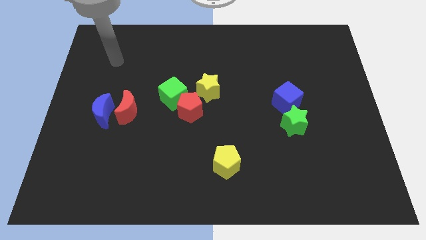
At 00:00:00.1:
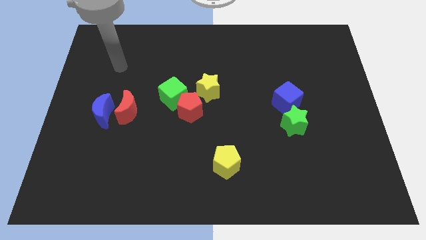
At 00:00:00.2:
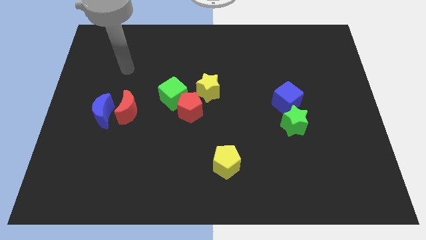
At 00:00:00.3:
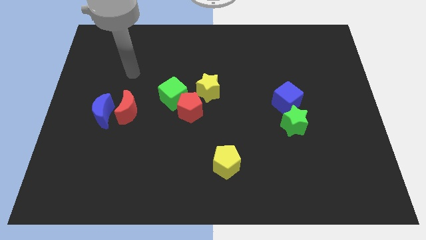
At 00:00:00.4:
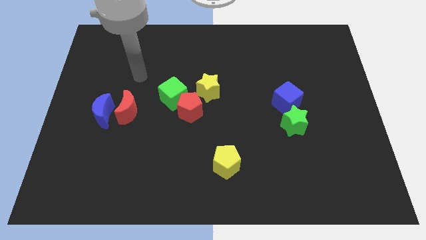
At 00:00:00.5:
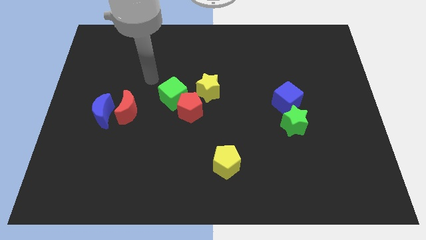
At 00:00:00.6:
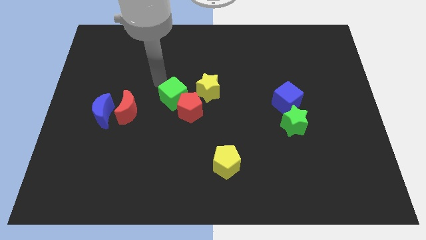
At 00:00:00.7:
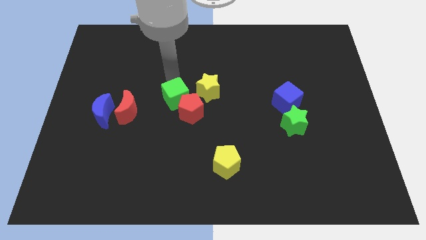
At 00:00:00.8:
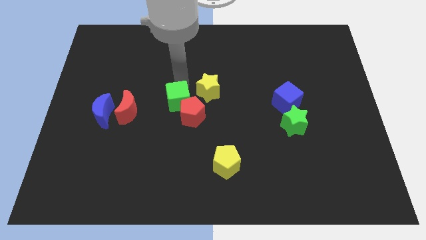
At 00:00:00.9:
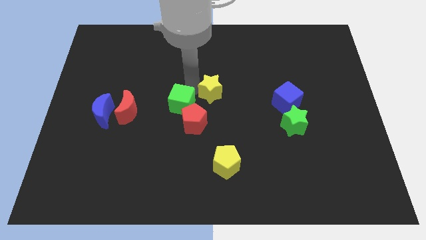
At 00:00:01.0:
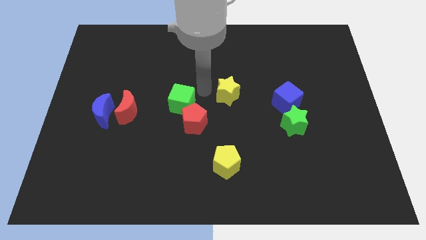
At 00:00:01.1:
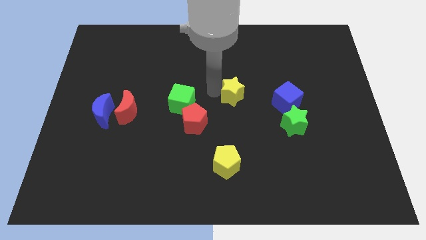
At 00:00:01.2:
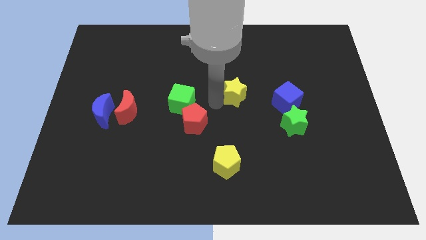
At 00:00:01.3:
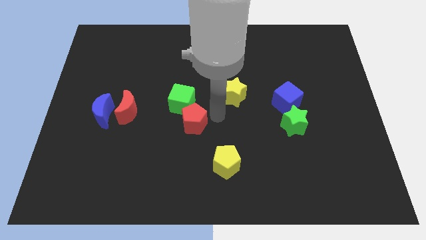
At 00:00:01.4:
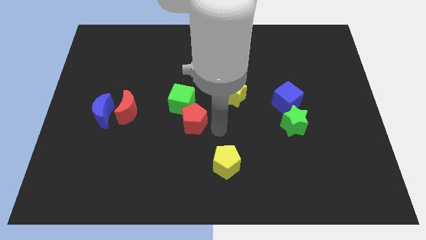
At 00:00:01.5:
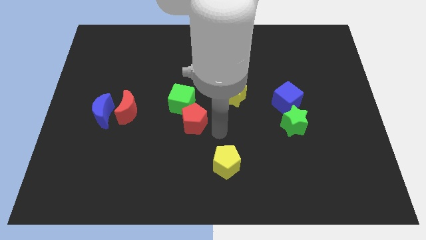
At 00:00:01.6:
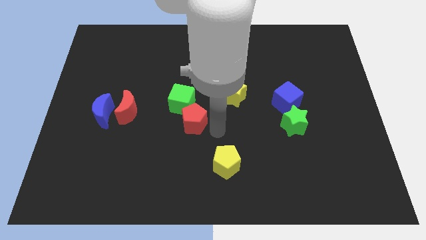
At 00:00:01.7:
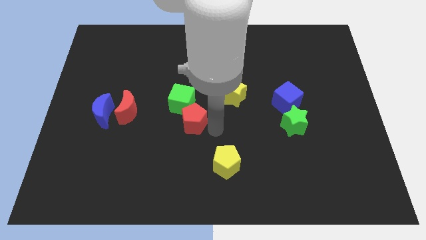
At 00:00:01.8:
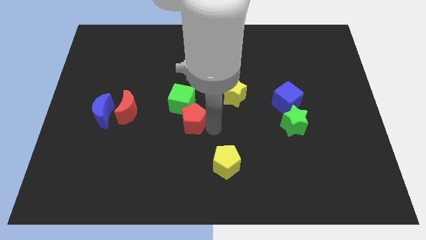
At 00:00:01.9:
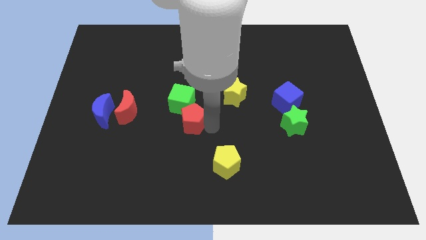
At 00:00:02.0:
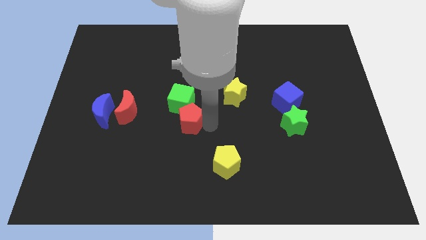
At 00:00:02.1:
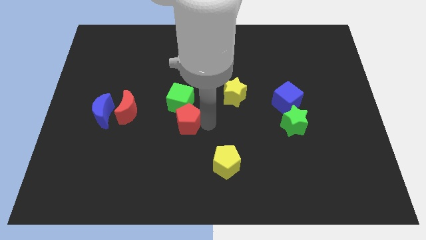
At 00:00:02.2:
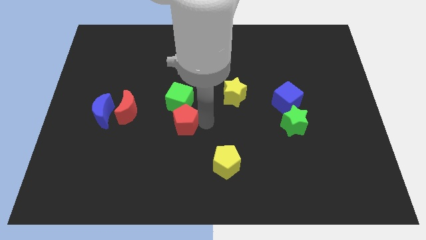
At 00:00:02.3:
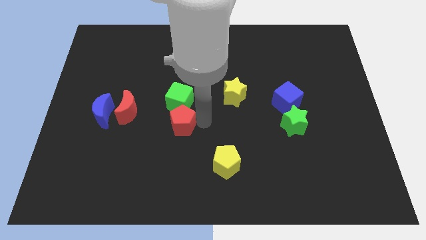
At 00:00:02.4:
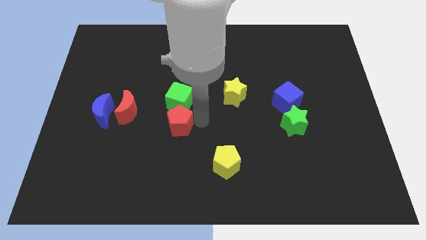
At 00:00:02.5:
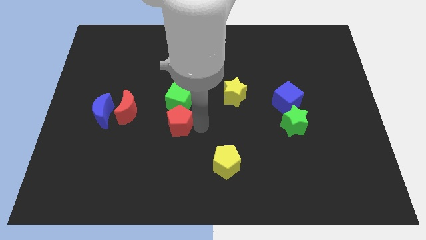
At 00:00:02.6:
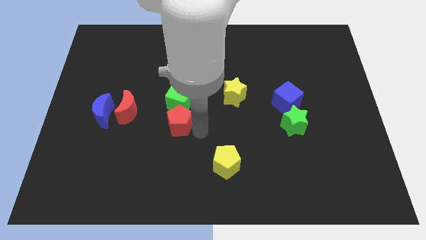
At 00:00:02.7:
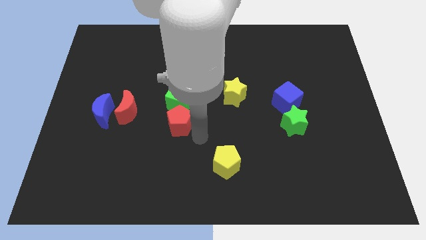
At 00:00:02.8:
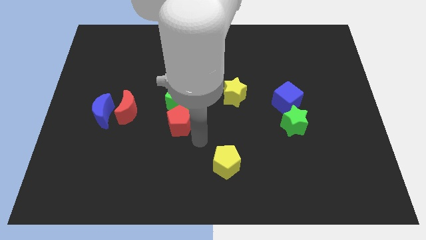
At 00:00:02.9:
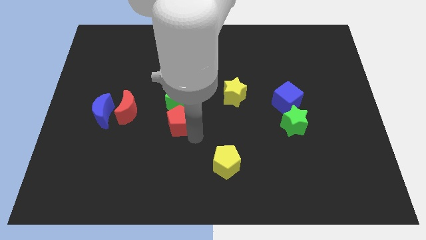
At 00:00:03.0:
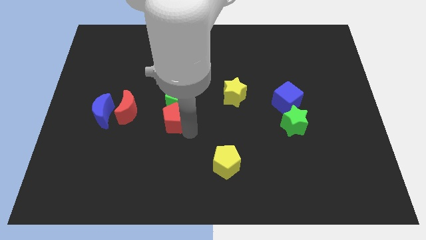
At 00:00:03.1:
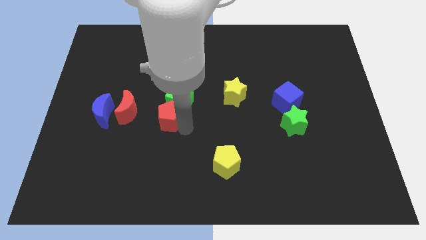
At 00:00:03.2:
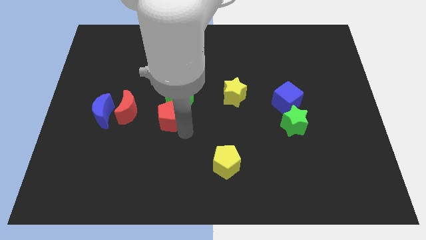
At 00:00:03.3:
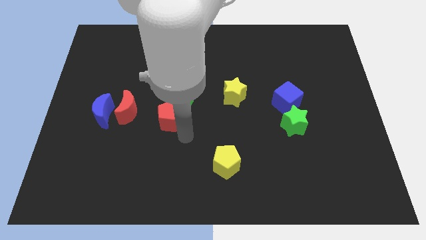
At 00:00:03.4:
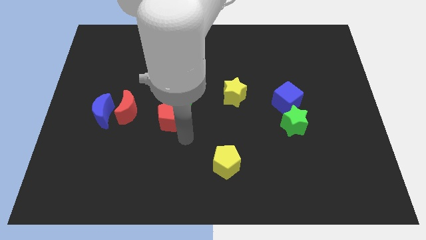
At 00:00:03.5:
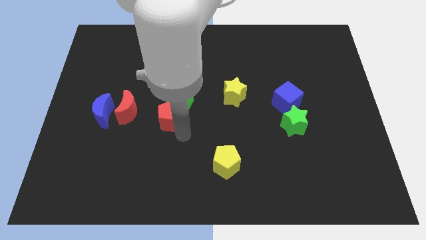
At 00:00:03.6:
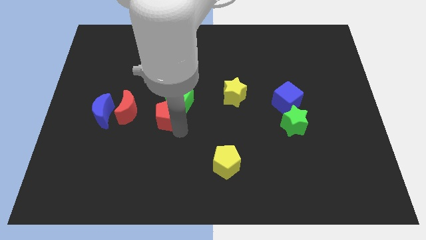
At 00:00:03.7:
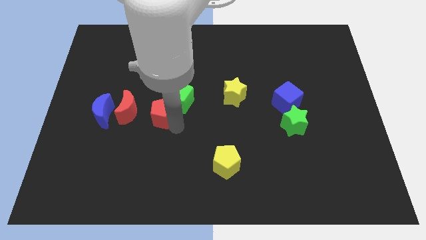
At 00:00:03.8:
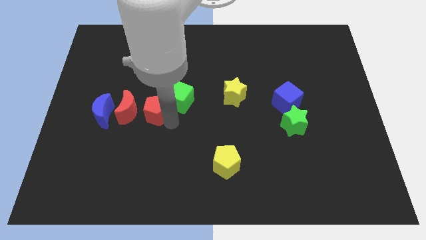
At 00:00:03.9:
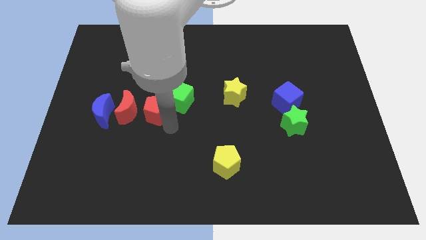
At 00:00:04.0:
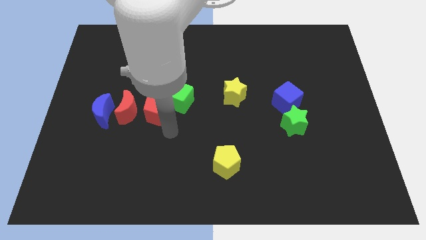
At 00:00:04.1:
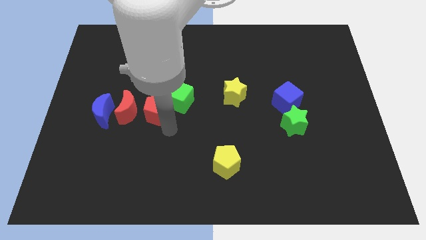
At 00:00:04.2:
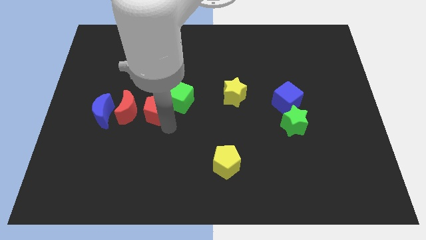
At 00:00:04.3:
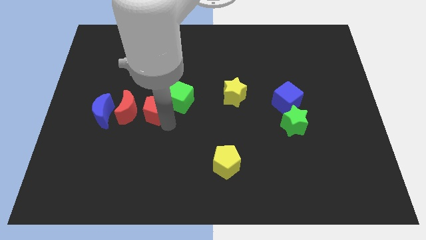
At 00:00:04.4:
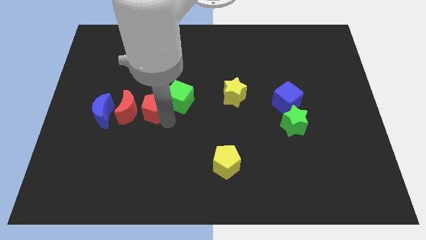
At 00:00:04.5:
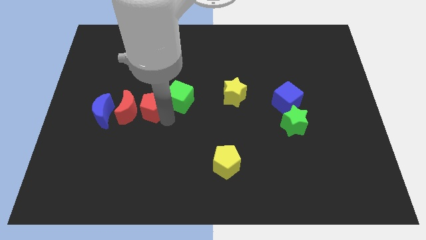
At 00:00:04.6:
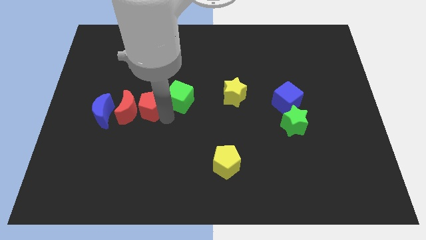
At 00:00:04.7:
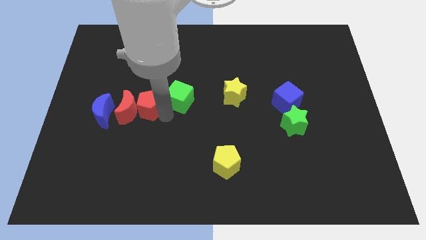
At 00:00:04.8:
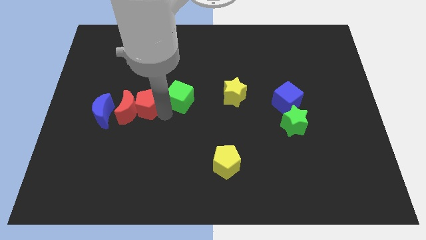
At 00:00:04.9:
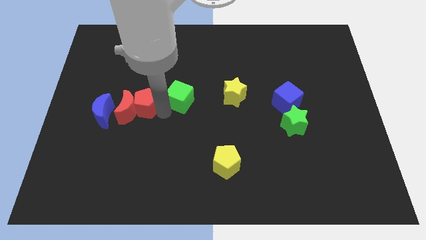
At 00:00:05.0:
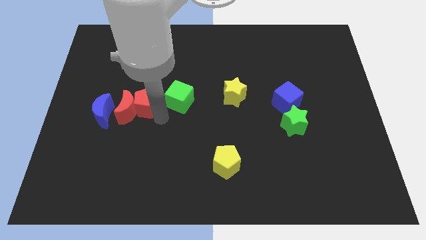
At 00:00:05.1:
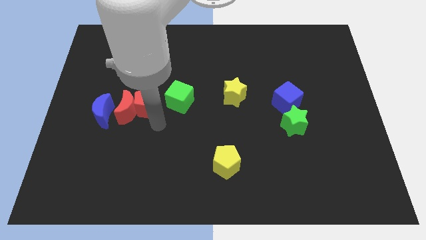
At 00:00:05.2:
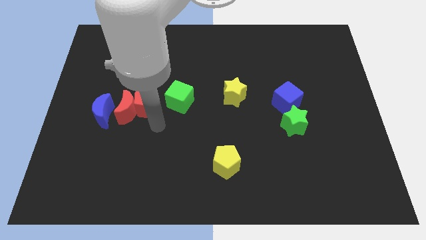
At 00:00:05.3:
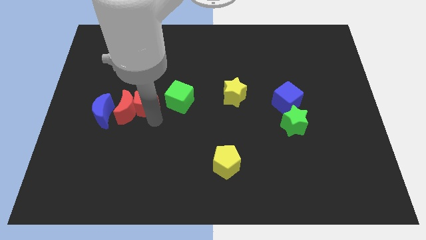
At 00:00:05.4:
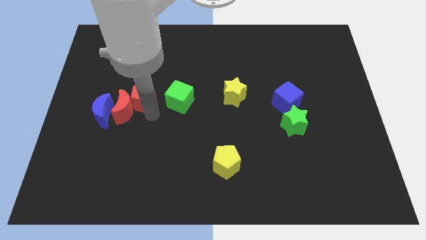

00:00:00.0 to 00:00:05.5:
move the red pentagon upwards and then left a little bit

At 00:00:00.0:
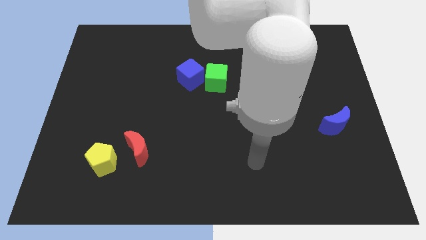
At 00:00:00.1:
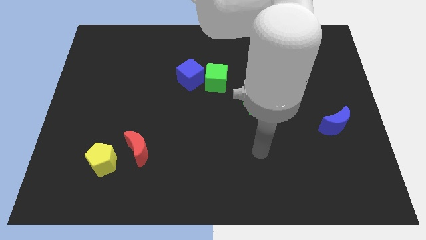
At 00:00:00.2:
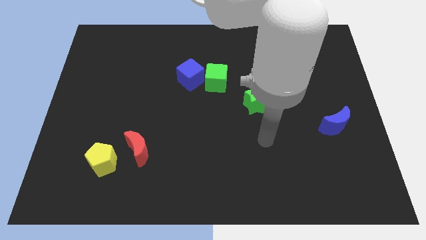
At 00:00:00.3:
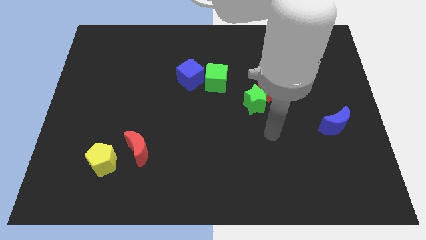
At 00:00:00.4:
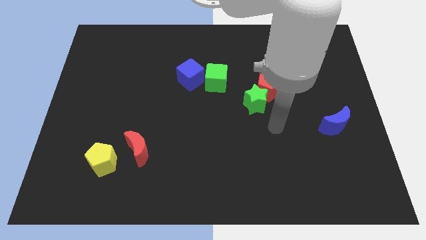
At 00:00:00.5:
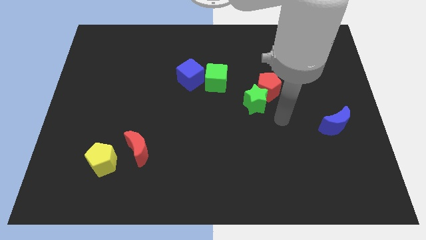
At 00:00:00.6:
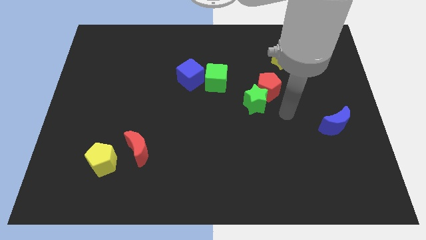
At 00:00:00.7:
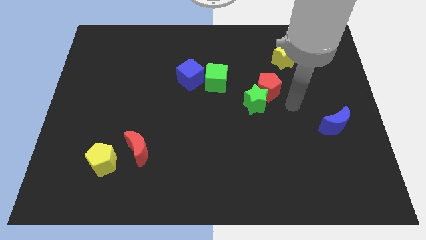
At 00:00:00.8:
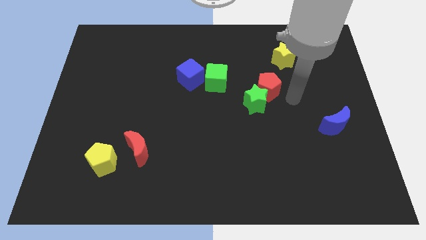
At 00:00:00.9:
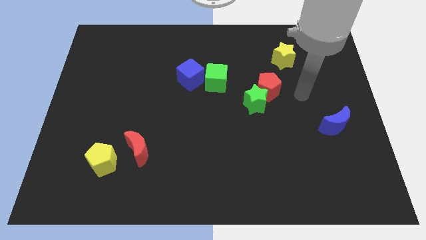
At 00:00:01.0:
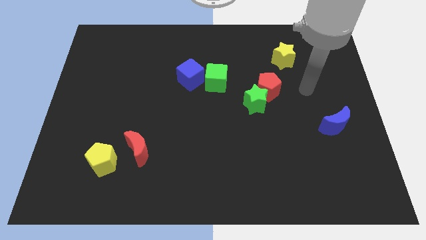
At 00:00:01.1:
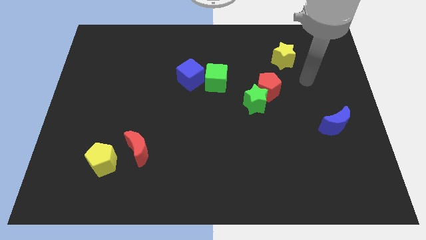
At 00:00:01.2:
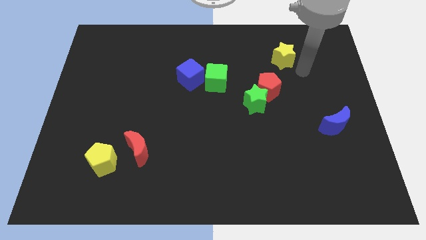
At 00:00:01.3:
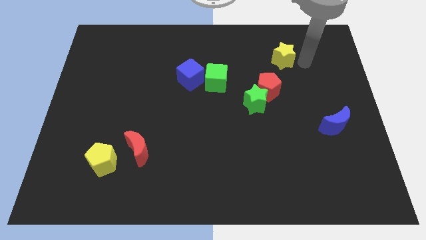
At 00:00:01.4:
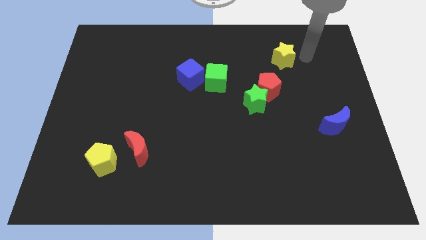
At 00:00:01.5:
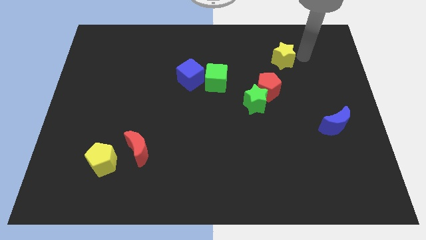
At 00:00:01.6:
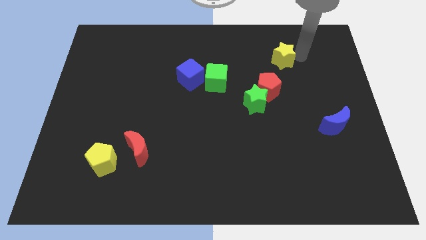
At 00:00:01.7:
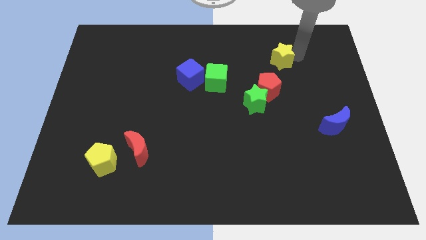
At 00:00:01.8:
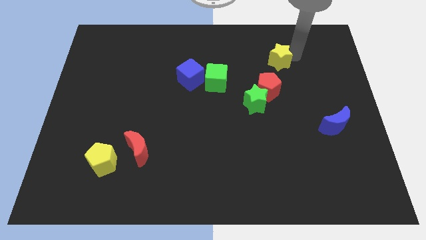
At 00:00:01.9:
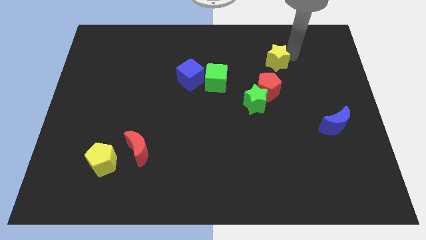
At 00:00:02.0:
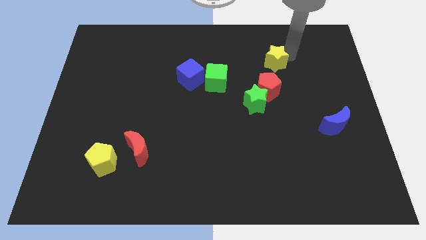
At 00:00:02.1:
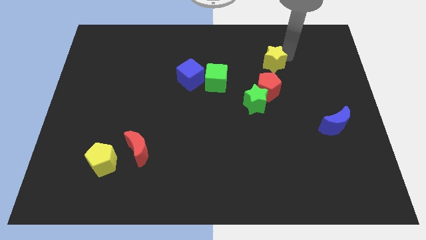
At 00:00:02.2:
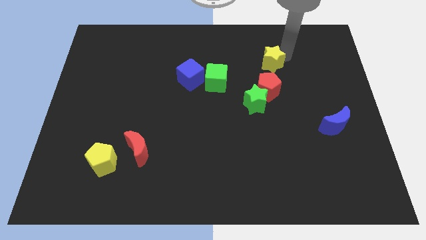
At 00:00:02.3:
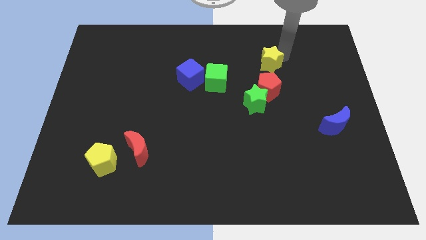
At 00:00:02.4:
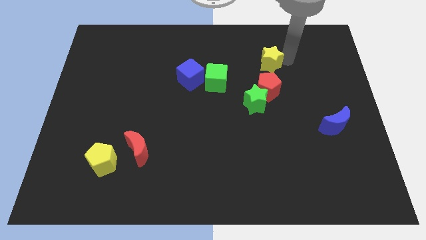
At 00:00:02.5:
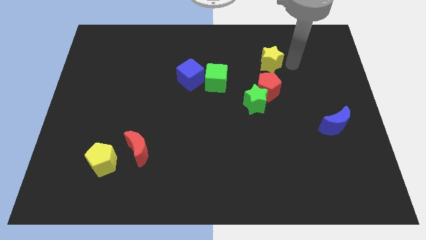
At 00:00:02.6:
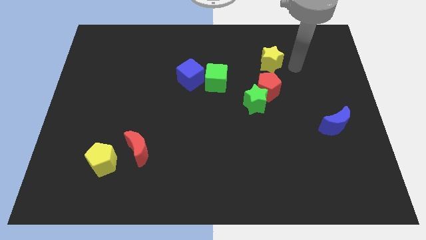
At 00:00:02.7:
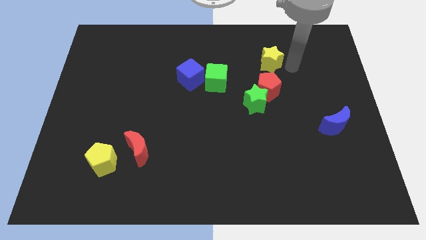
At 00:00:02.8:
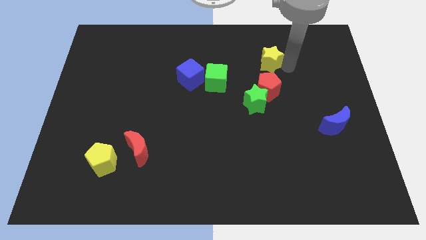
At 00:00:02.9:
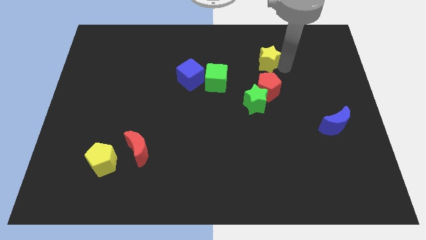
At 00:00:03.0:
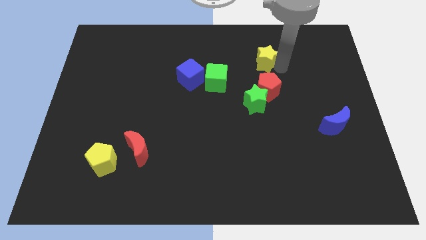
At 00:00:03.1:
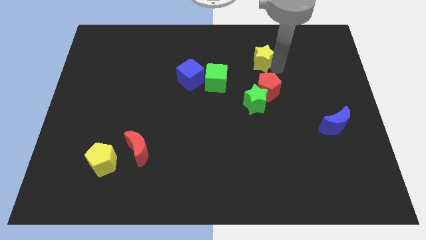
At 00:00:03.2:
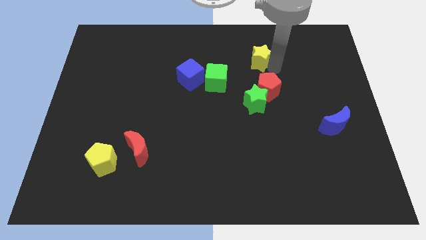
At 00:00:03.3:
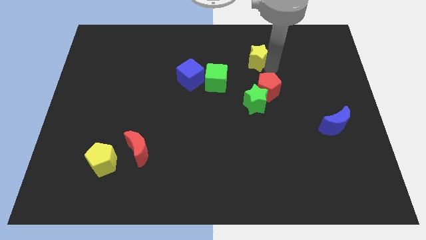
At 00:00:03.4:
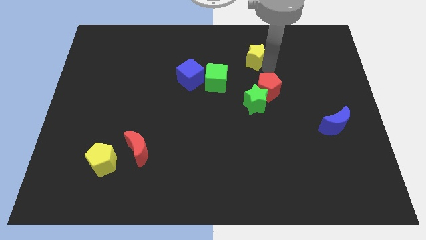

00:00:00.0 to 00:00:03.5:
slide the yellow star a little to the left
